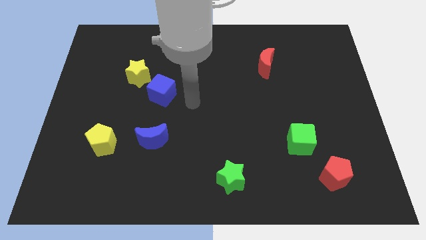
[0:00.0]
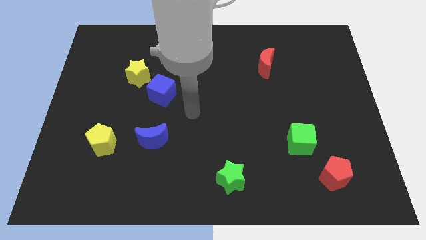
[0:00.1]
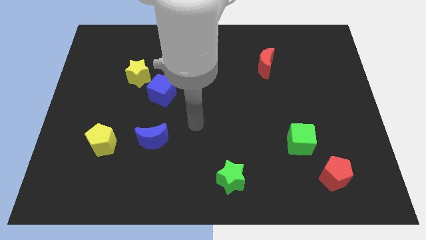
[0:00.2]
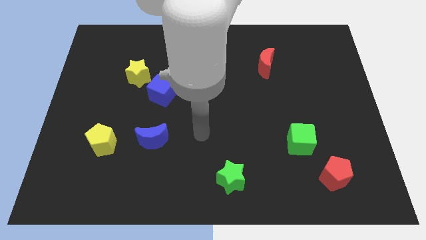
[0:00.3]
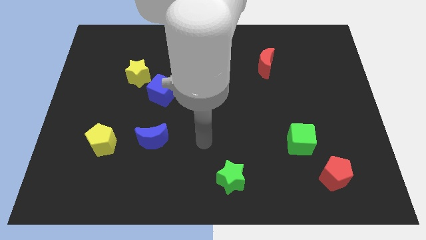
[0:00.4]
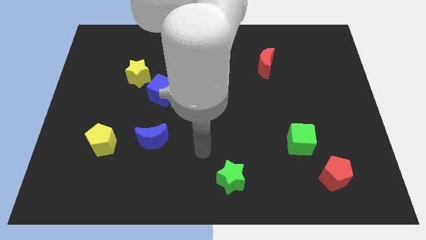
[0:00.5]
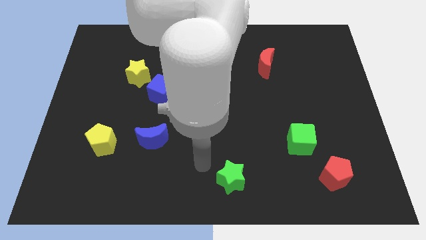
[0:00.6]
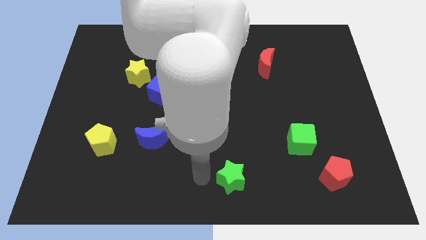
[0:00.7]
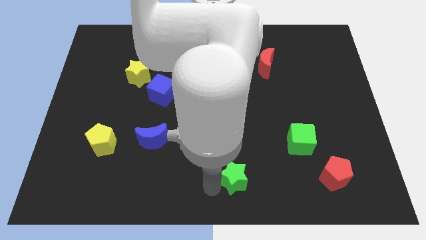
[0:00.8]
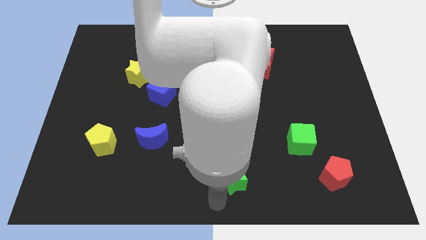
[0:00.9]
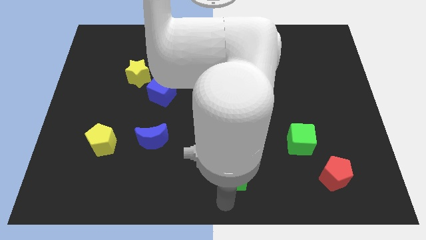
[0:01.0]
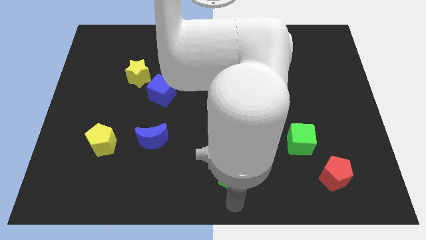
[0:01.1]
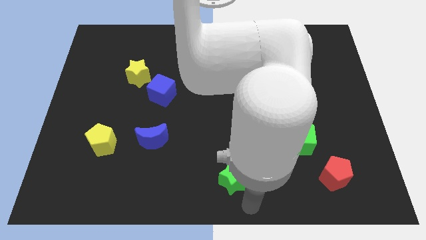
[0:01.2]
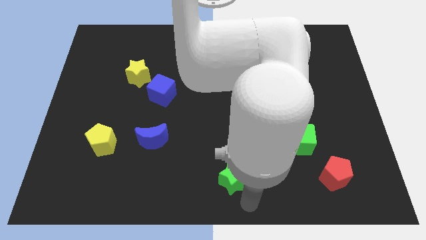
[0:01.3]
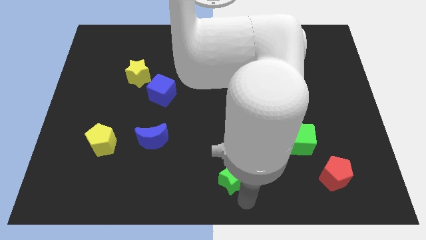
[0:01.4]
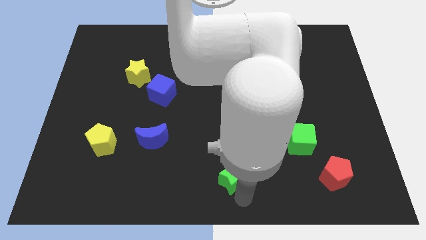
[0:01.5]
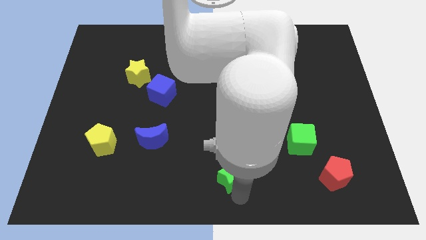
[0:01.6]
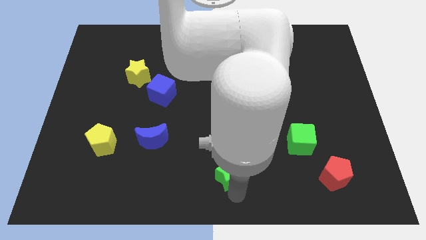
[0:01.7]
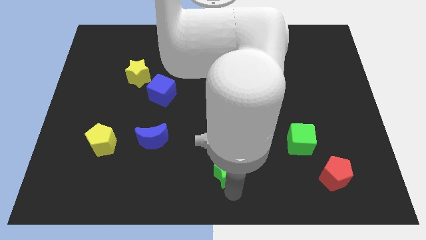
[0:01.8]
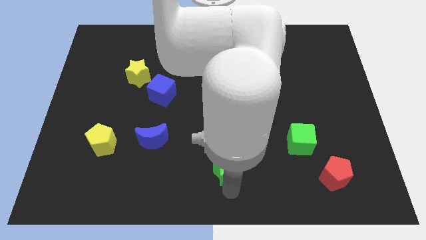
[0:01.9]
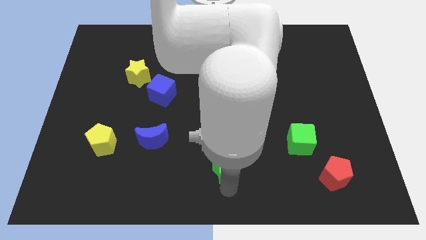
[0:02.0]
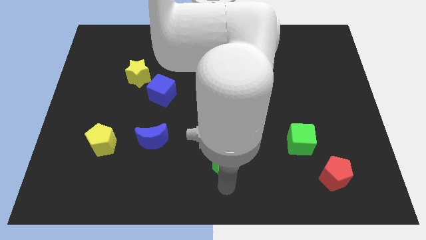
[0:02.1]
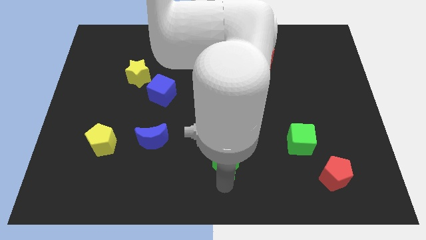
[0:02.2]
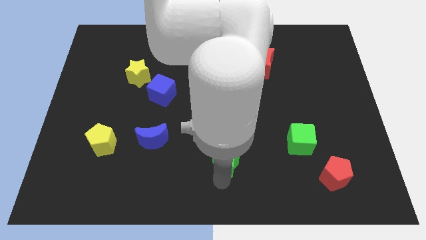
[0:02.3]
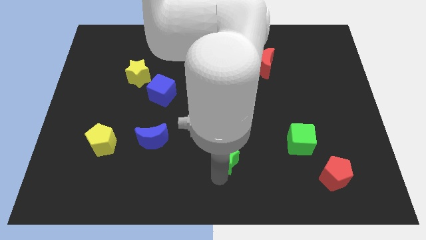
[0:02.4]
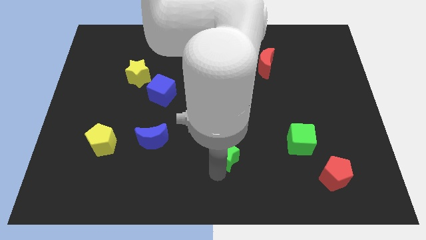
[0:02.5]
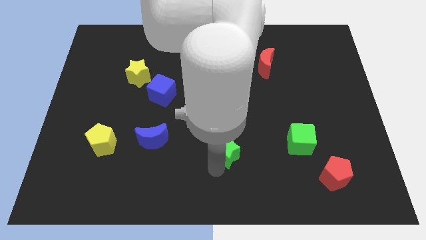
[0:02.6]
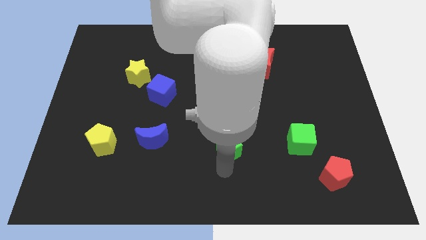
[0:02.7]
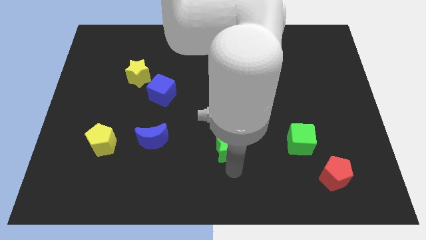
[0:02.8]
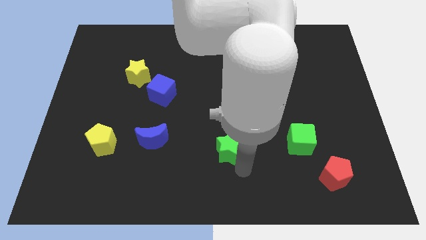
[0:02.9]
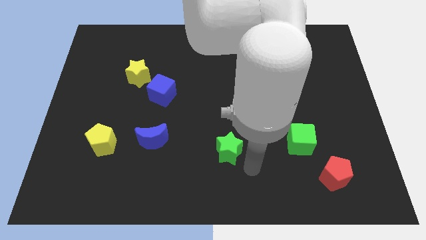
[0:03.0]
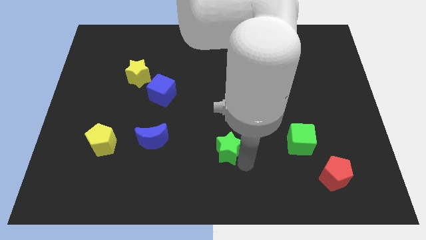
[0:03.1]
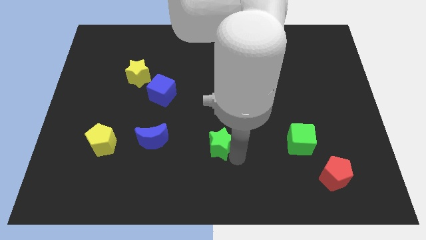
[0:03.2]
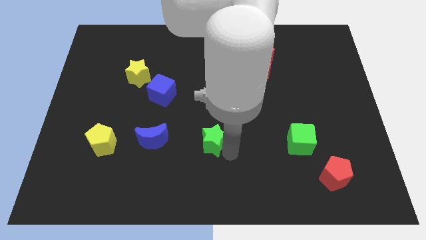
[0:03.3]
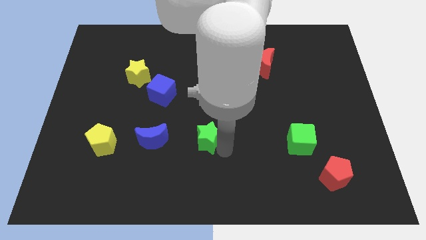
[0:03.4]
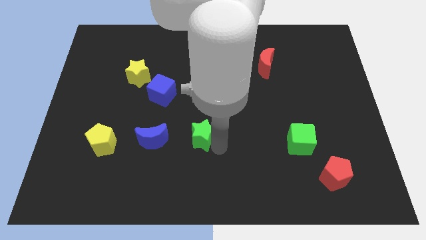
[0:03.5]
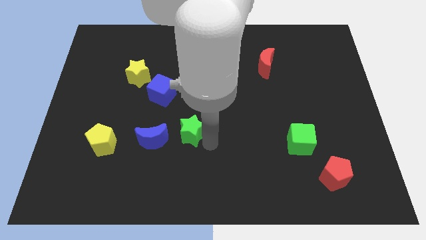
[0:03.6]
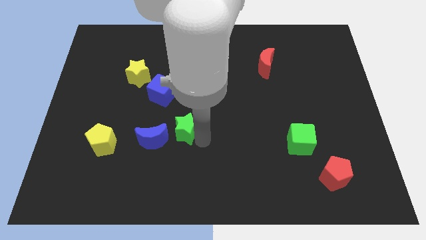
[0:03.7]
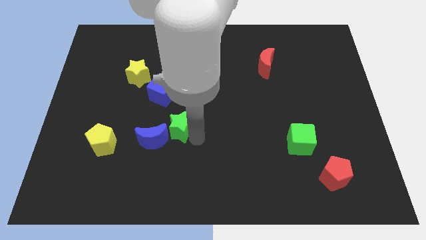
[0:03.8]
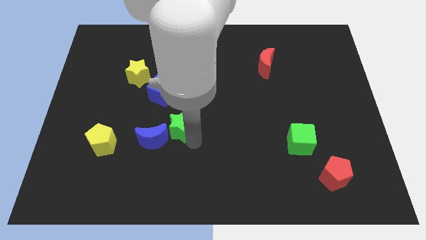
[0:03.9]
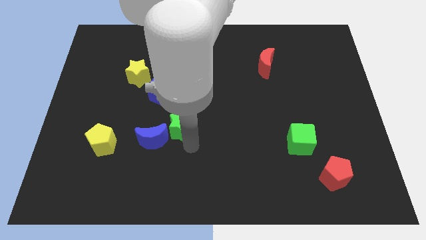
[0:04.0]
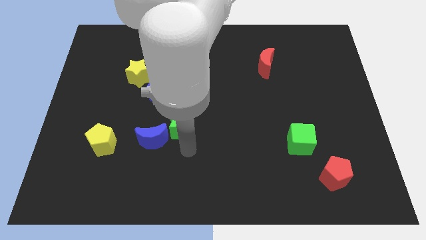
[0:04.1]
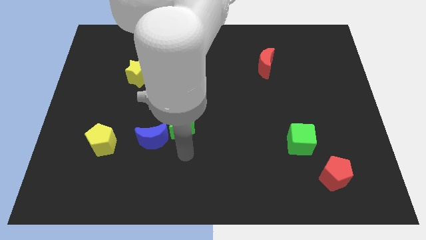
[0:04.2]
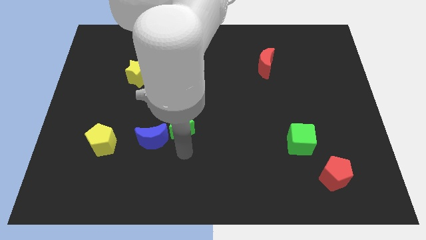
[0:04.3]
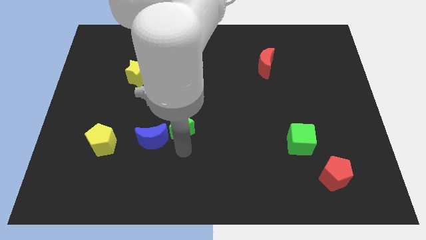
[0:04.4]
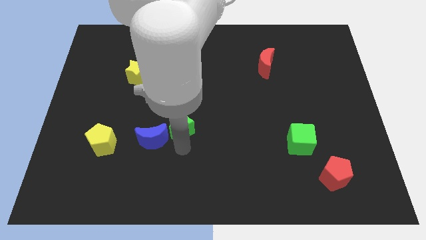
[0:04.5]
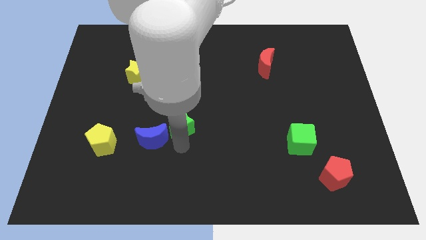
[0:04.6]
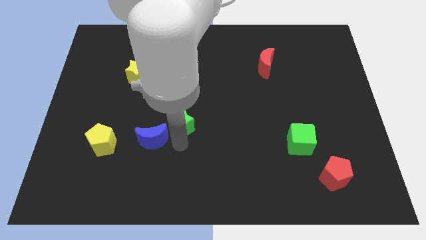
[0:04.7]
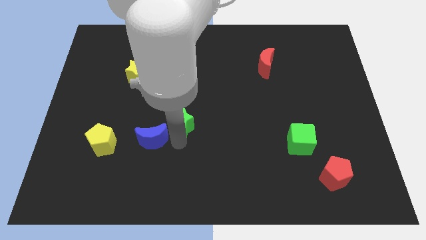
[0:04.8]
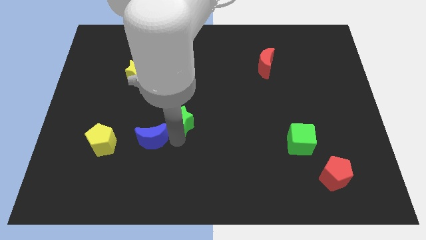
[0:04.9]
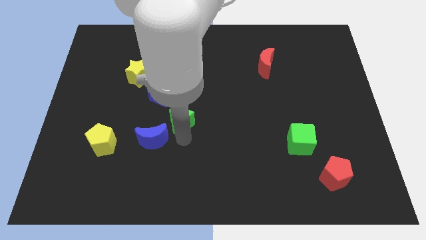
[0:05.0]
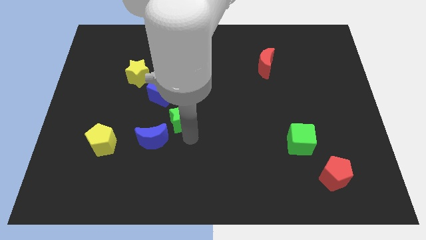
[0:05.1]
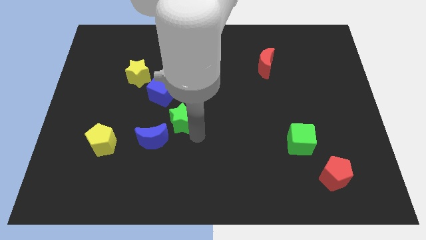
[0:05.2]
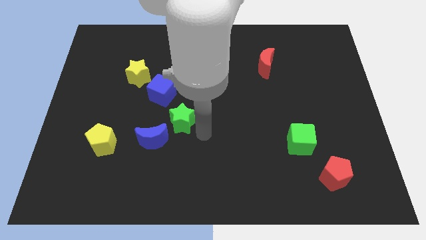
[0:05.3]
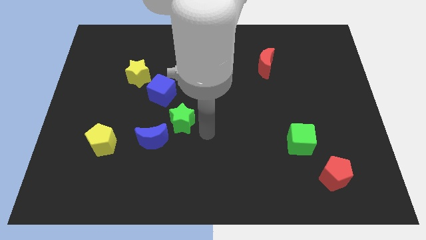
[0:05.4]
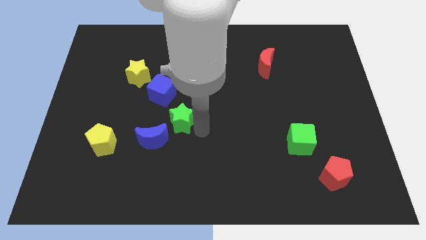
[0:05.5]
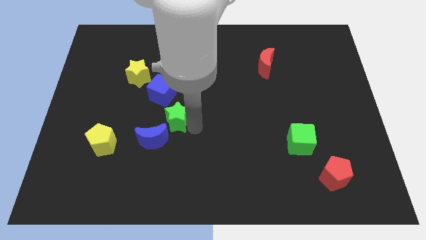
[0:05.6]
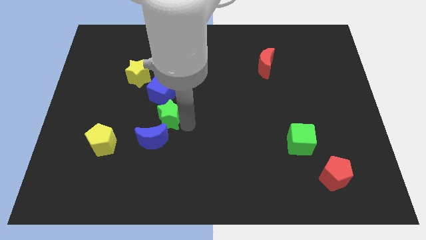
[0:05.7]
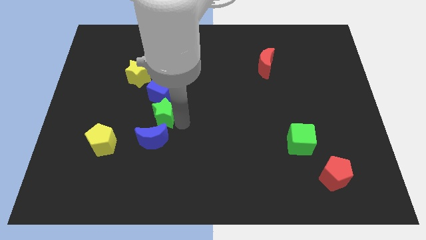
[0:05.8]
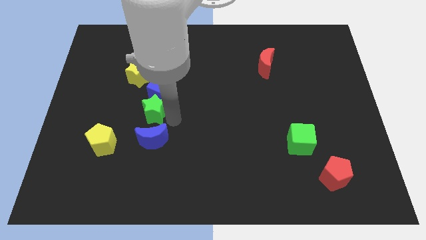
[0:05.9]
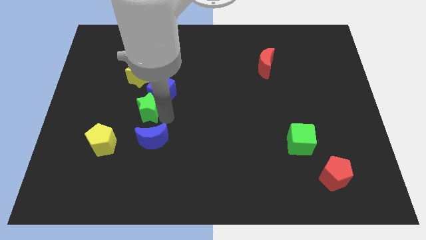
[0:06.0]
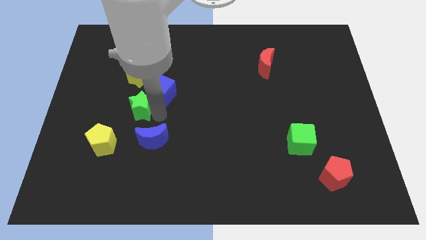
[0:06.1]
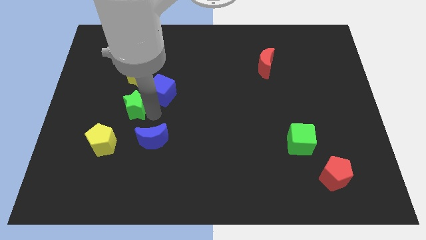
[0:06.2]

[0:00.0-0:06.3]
push the green star to the left of the blue cube

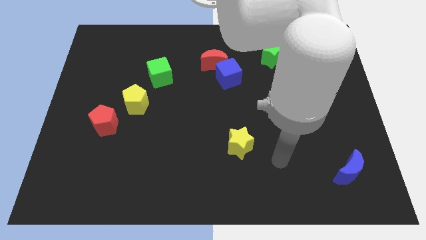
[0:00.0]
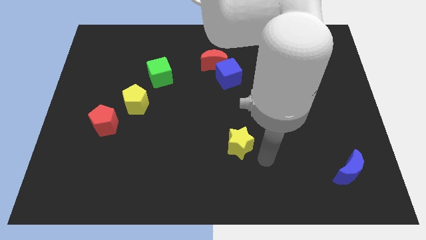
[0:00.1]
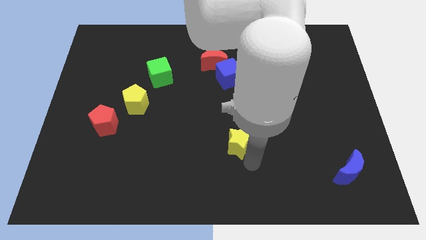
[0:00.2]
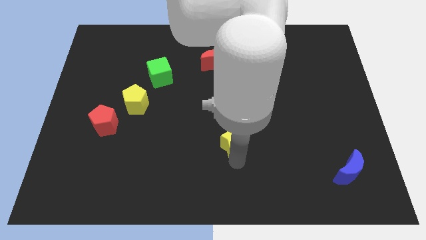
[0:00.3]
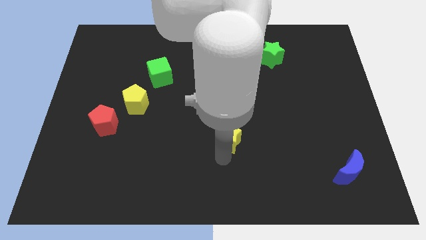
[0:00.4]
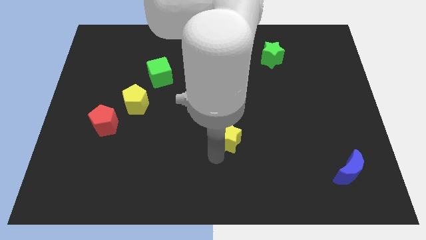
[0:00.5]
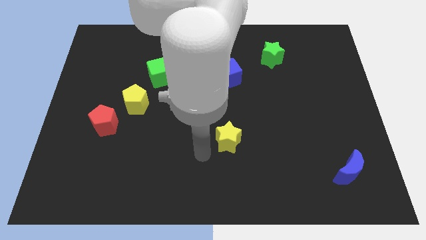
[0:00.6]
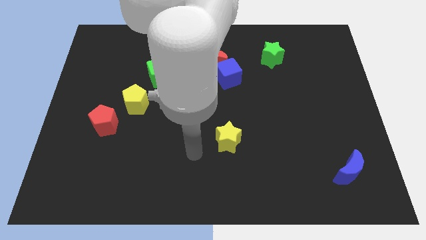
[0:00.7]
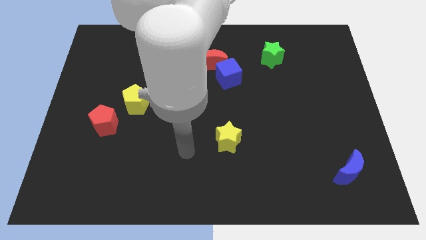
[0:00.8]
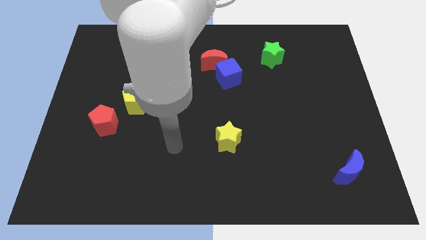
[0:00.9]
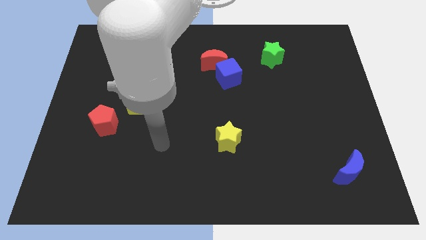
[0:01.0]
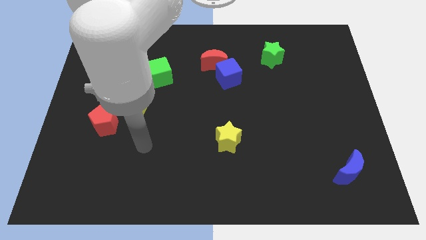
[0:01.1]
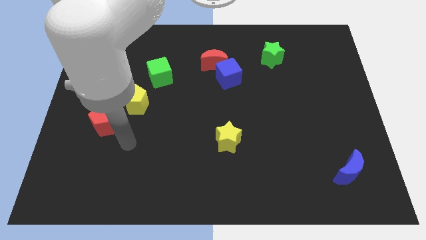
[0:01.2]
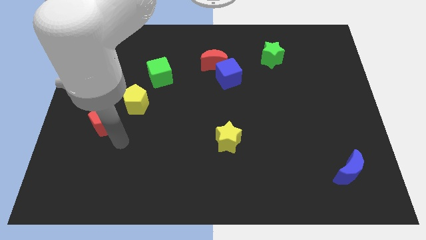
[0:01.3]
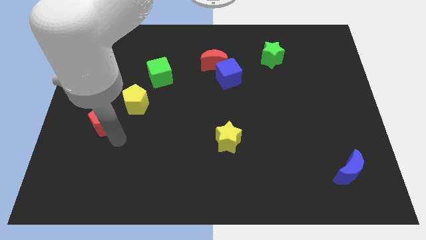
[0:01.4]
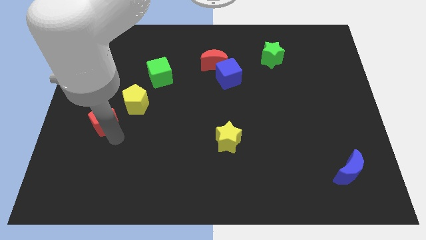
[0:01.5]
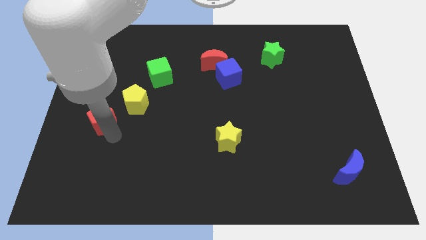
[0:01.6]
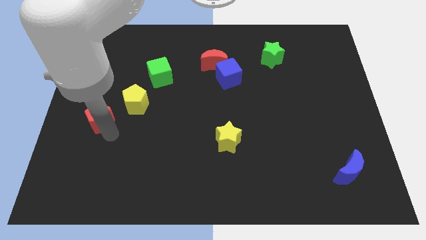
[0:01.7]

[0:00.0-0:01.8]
move the red pentagon just left of the yellow pentagon

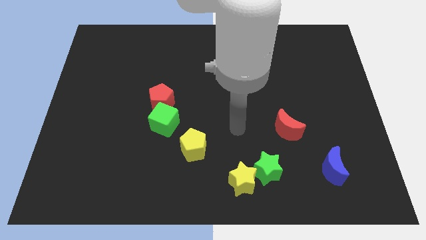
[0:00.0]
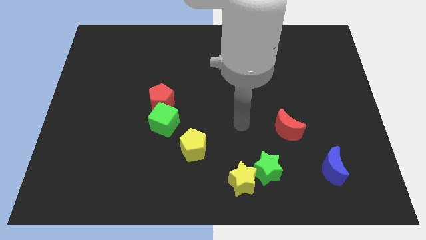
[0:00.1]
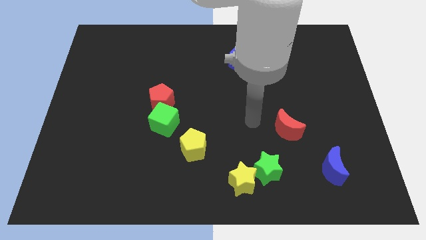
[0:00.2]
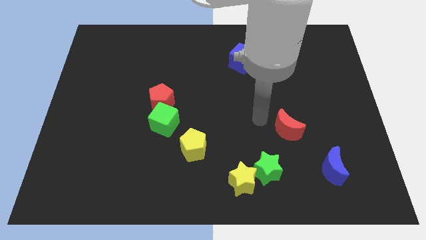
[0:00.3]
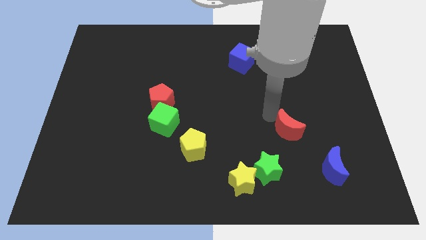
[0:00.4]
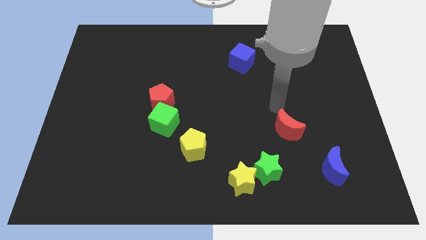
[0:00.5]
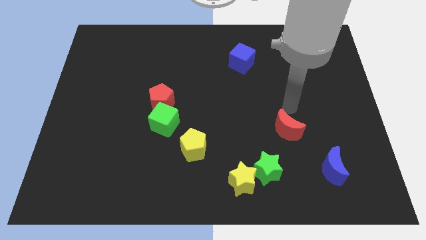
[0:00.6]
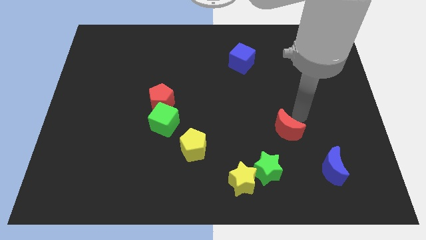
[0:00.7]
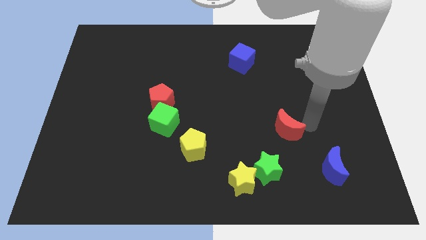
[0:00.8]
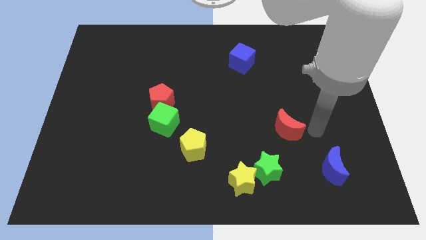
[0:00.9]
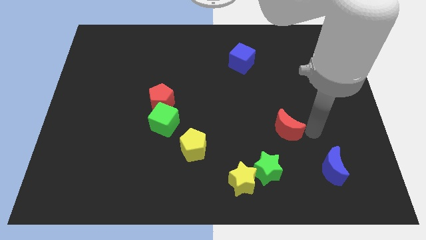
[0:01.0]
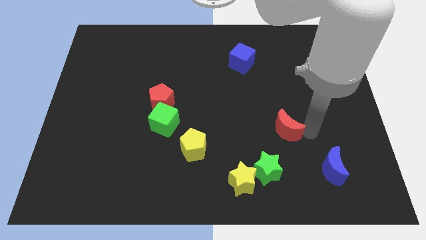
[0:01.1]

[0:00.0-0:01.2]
move the red moon to the top side of the green star
